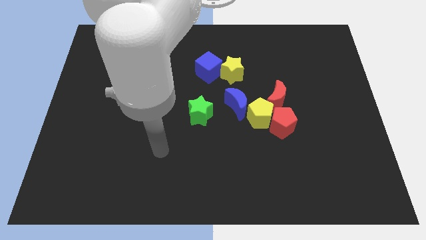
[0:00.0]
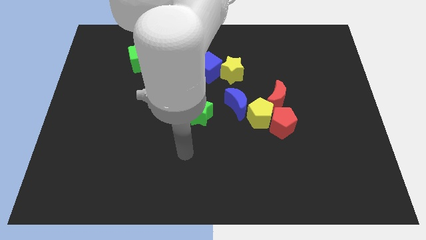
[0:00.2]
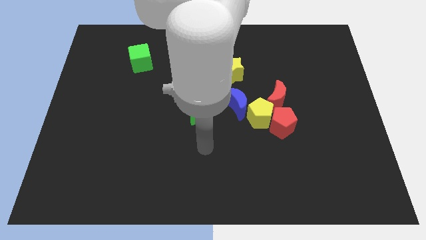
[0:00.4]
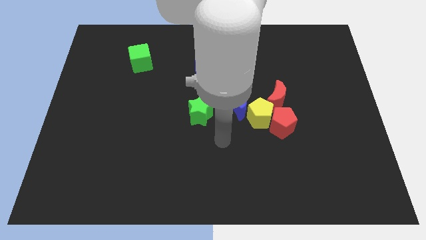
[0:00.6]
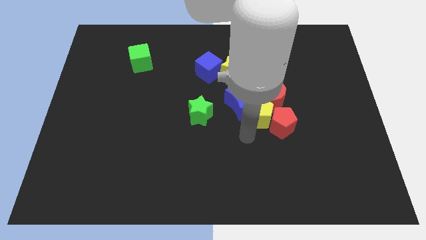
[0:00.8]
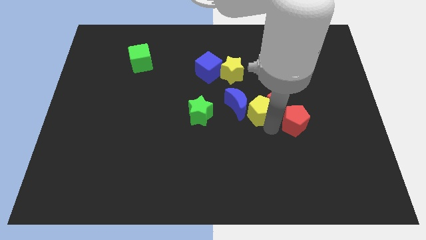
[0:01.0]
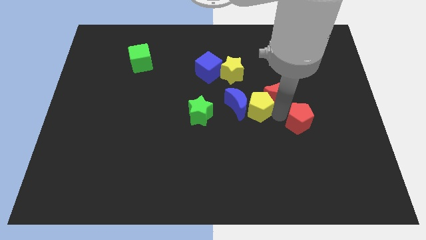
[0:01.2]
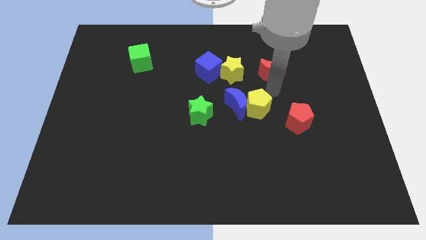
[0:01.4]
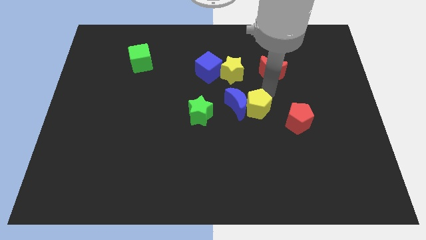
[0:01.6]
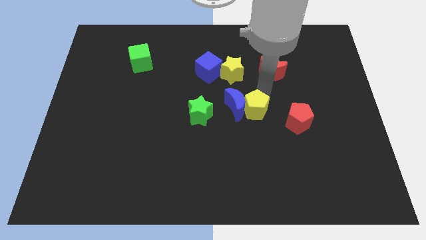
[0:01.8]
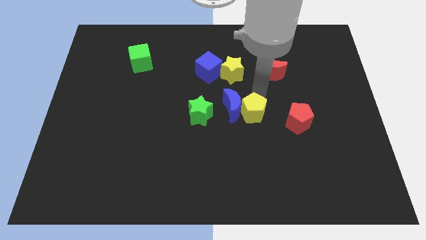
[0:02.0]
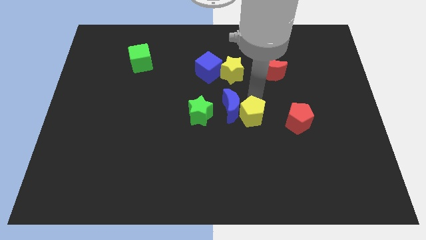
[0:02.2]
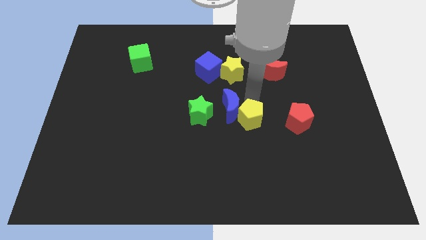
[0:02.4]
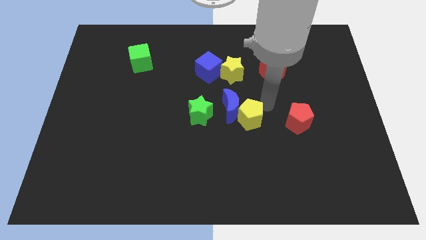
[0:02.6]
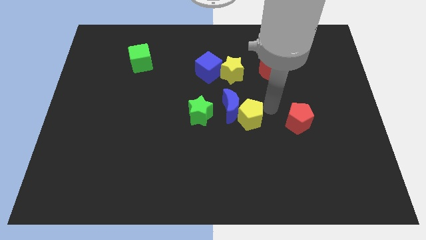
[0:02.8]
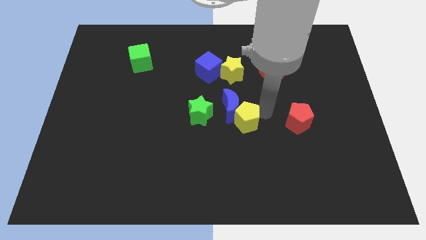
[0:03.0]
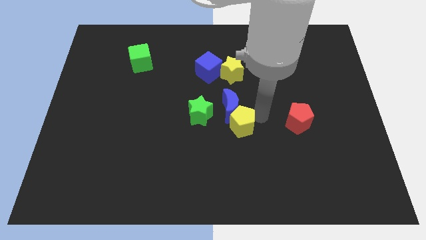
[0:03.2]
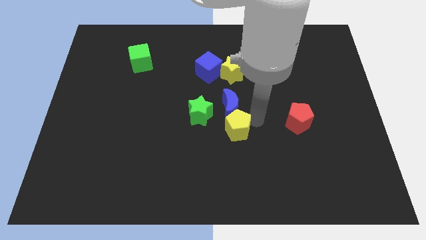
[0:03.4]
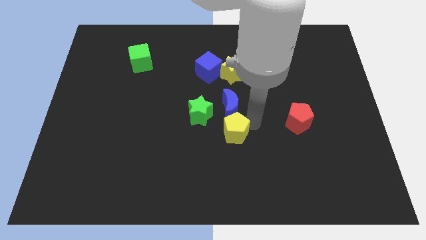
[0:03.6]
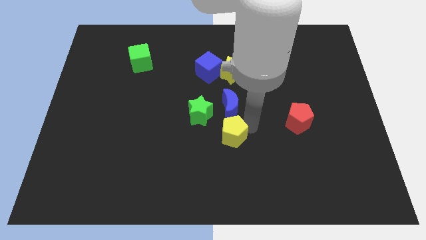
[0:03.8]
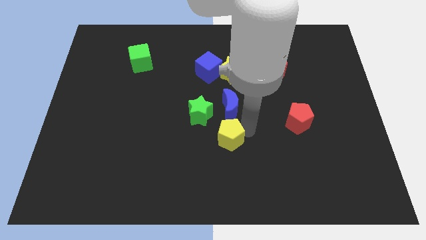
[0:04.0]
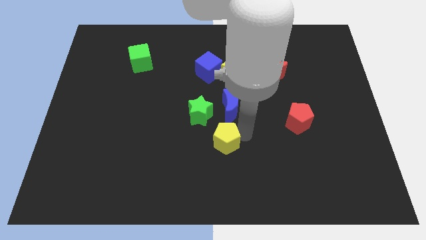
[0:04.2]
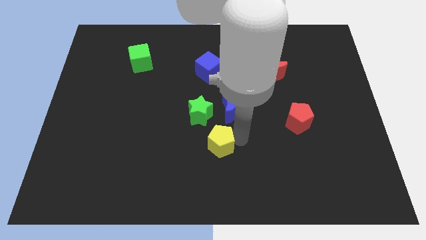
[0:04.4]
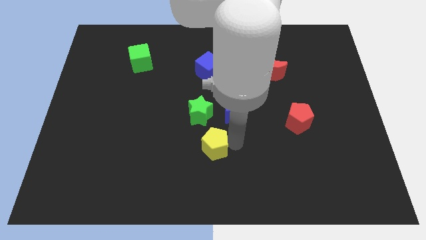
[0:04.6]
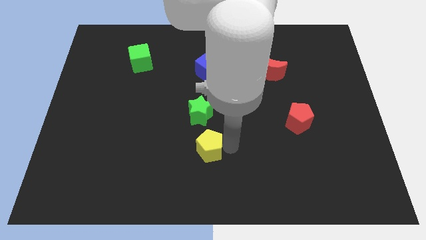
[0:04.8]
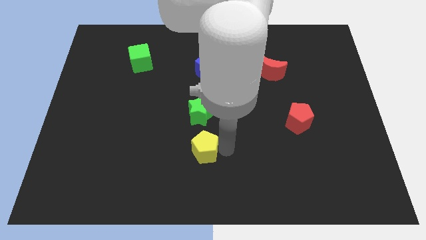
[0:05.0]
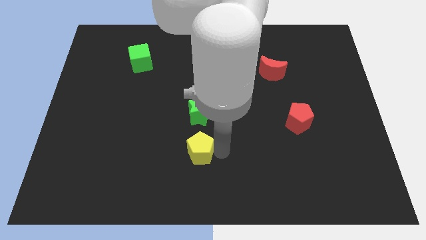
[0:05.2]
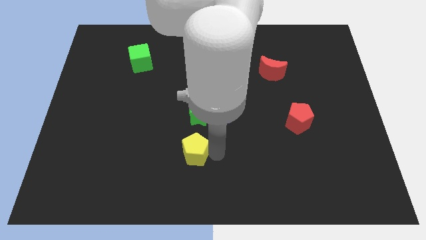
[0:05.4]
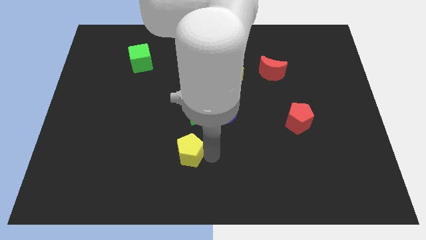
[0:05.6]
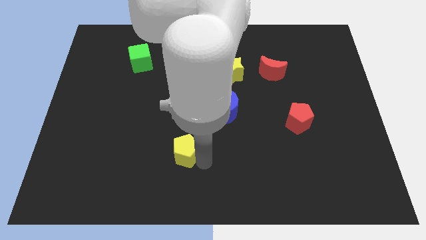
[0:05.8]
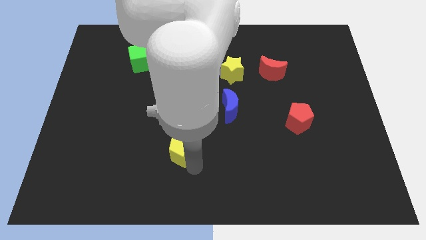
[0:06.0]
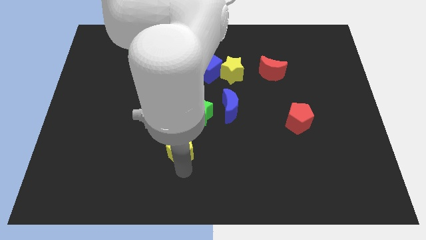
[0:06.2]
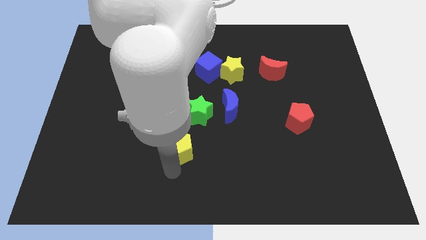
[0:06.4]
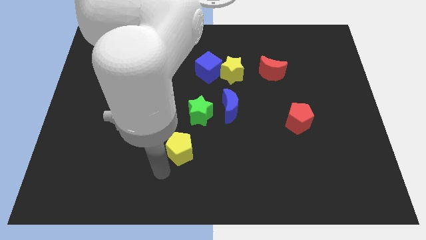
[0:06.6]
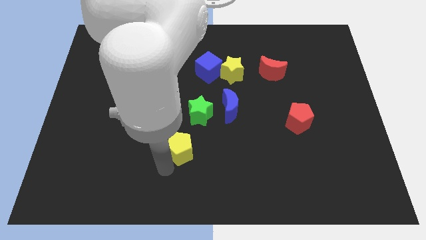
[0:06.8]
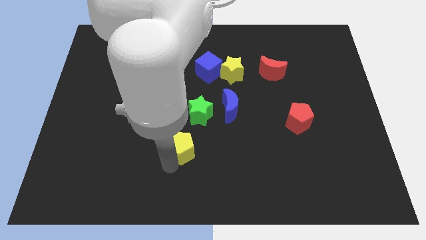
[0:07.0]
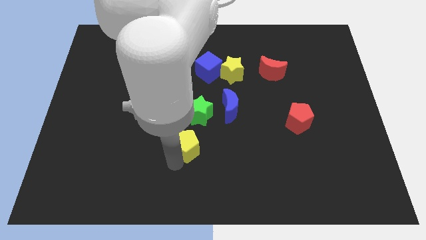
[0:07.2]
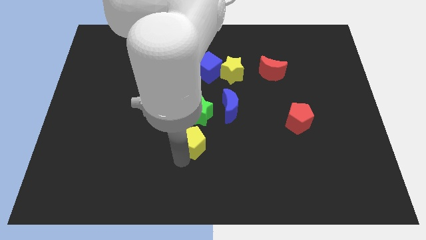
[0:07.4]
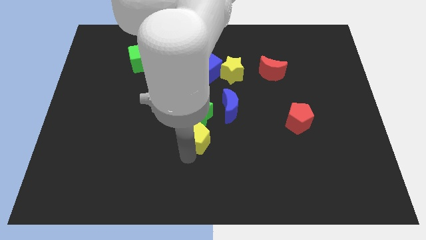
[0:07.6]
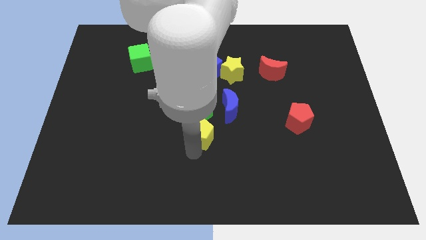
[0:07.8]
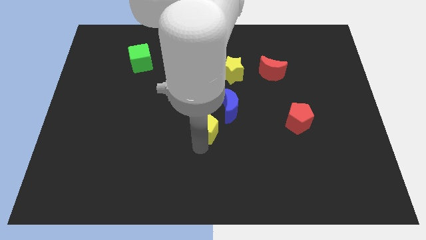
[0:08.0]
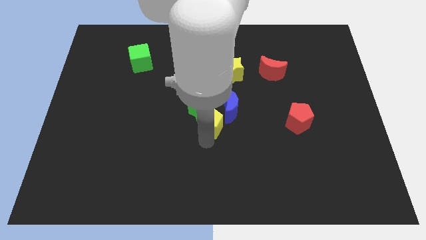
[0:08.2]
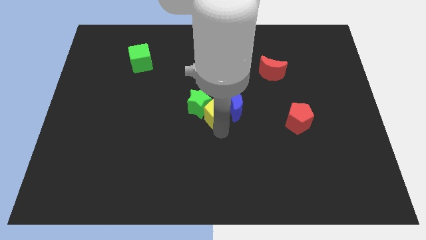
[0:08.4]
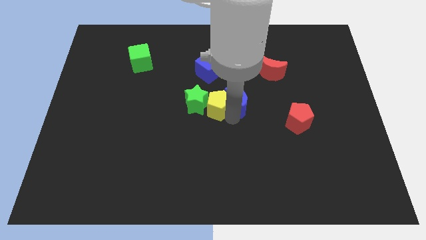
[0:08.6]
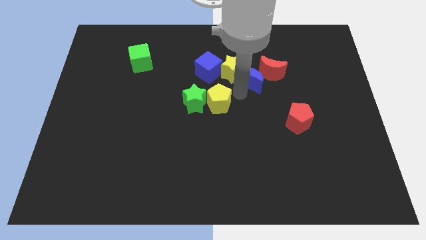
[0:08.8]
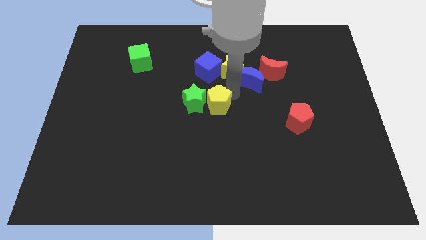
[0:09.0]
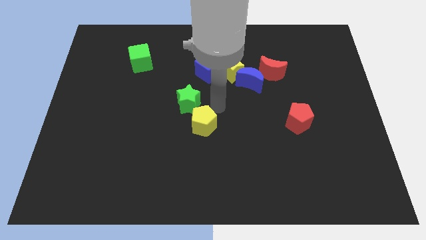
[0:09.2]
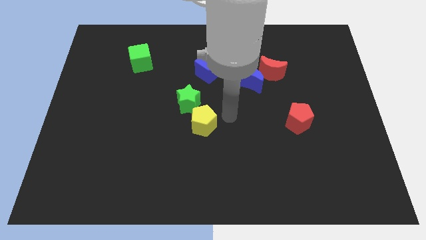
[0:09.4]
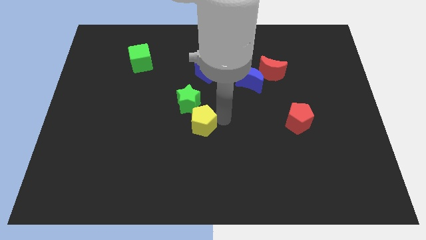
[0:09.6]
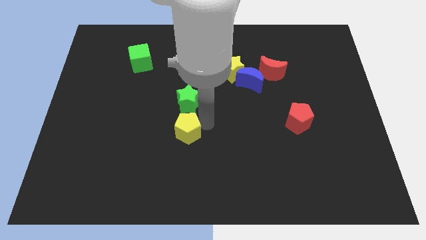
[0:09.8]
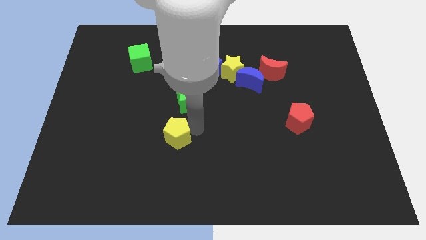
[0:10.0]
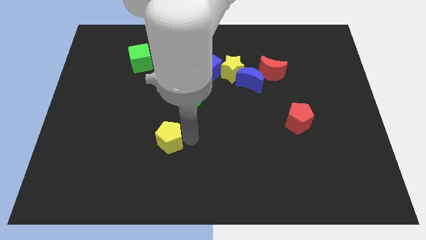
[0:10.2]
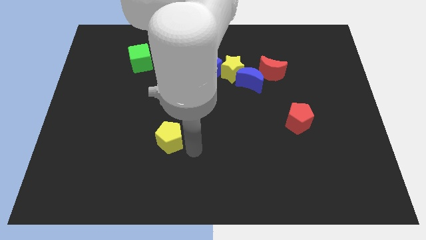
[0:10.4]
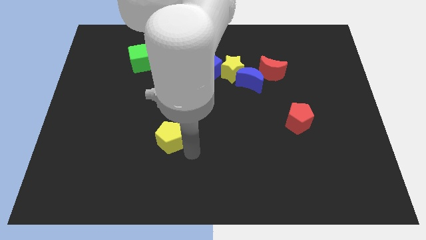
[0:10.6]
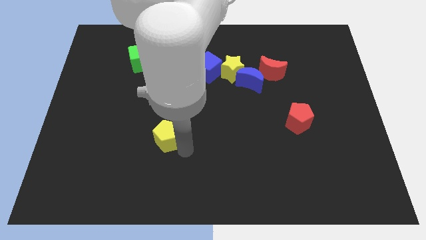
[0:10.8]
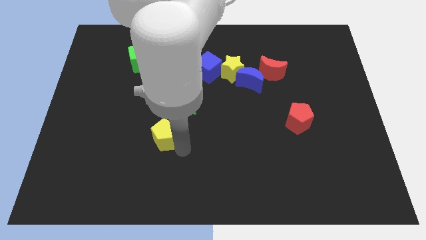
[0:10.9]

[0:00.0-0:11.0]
push the yellow pentagon left

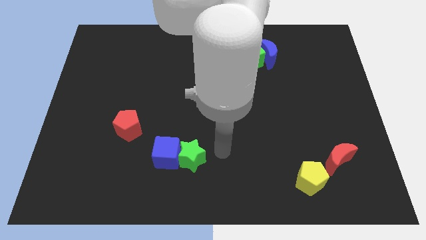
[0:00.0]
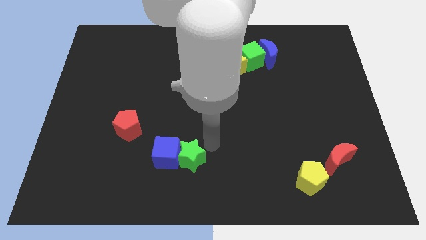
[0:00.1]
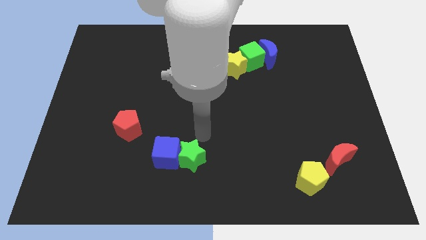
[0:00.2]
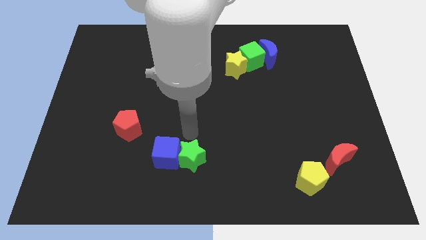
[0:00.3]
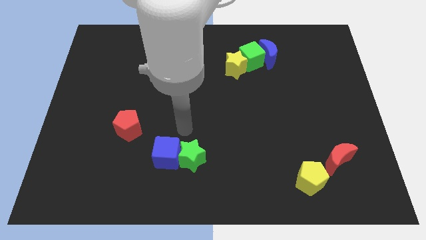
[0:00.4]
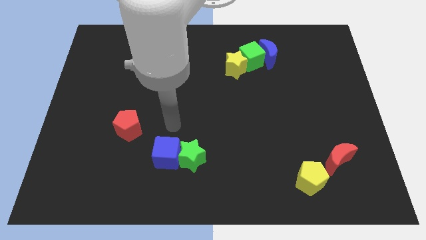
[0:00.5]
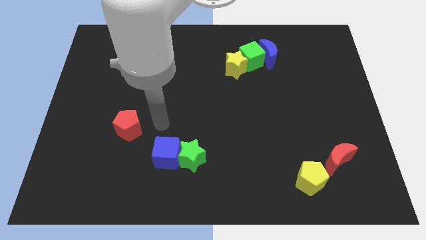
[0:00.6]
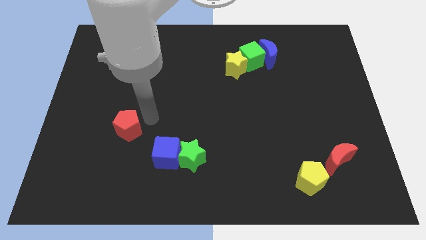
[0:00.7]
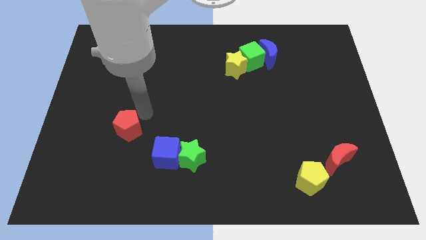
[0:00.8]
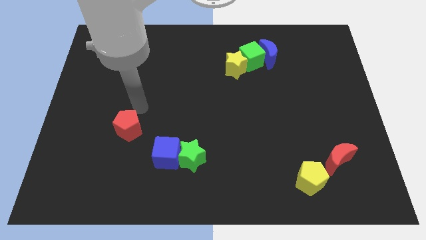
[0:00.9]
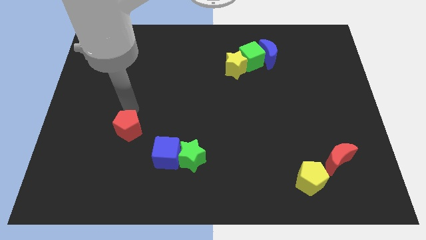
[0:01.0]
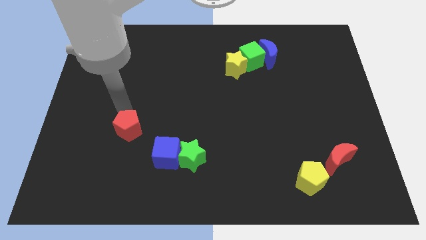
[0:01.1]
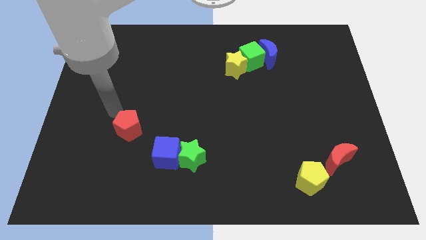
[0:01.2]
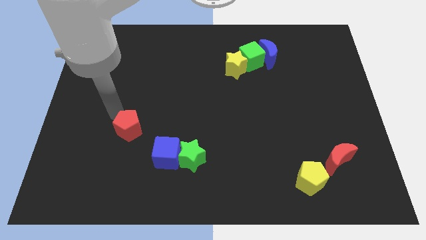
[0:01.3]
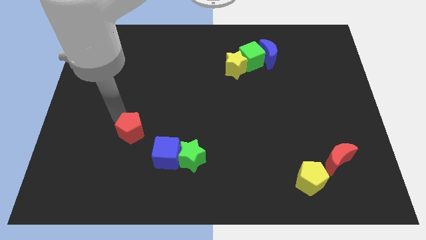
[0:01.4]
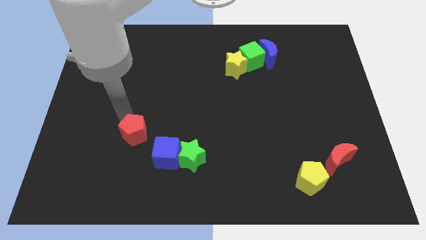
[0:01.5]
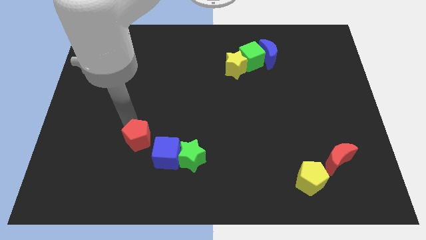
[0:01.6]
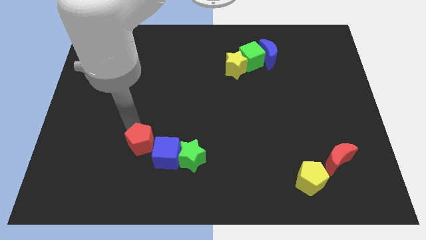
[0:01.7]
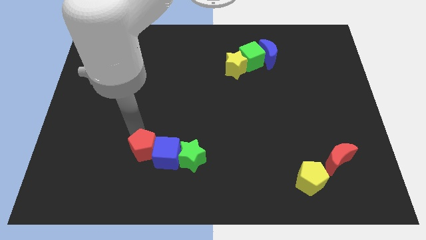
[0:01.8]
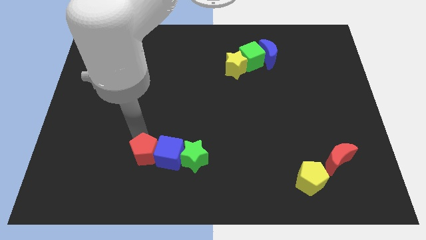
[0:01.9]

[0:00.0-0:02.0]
slightly push the red pentagon downwards and to the right

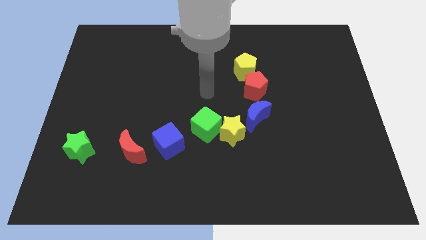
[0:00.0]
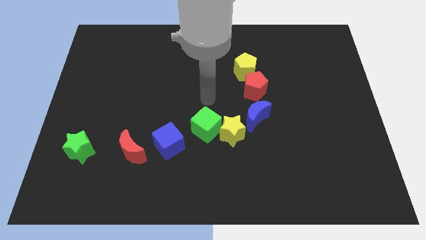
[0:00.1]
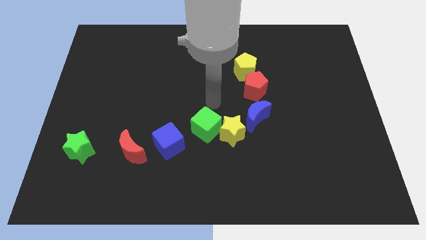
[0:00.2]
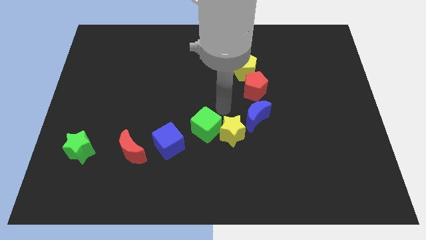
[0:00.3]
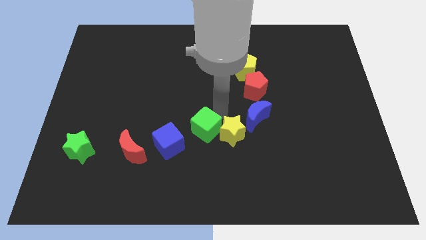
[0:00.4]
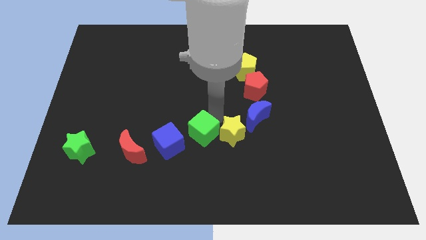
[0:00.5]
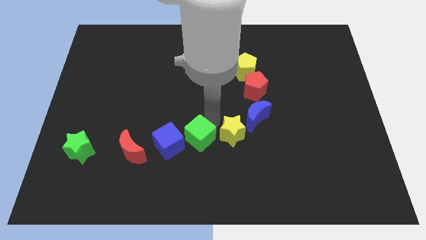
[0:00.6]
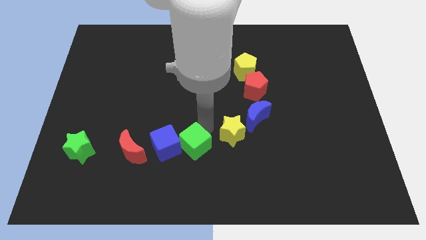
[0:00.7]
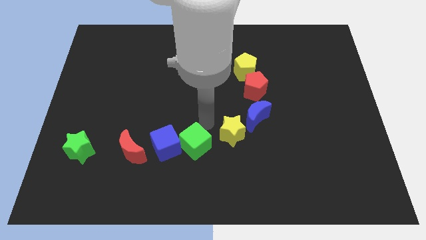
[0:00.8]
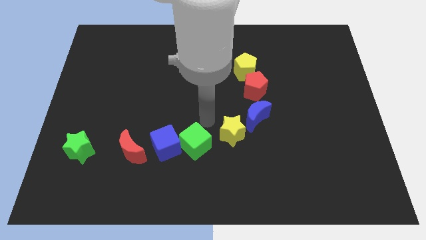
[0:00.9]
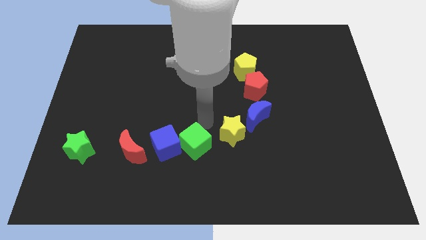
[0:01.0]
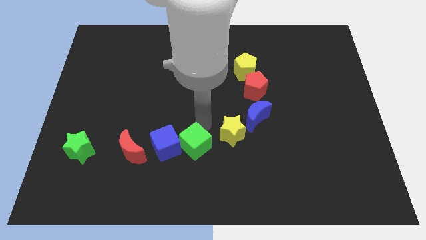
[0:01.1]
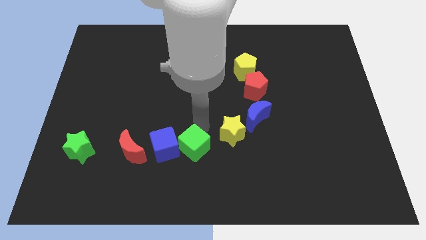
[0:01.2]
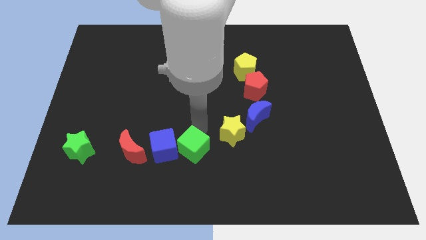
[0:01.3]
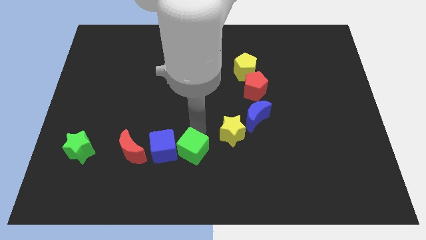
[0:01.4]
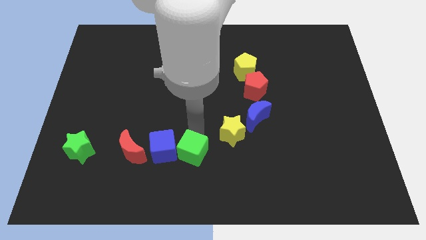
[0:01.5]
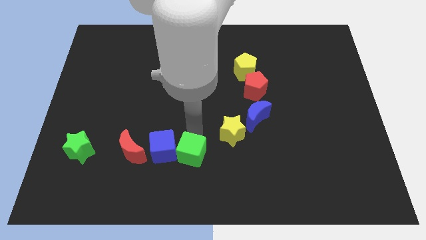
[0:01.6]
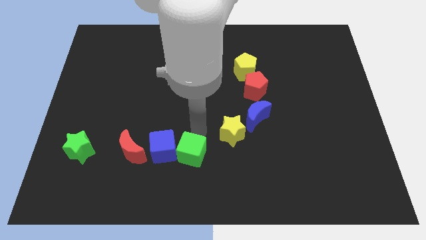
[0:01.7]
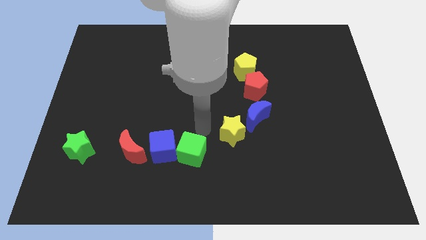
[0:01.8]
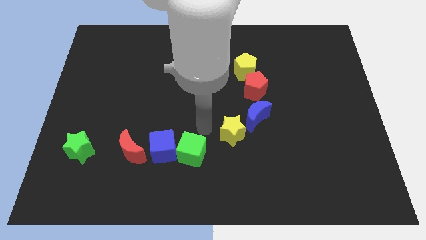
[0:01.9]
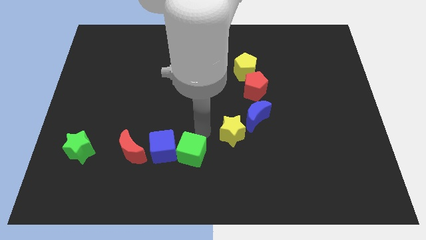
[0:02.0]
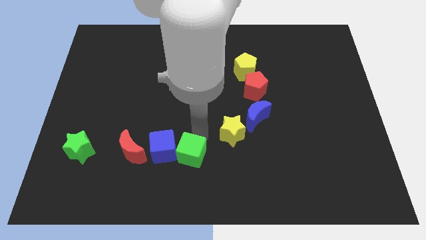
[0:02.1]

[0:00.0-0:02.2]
slightly slide the green cube down and to the left diagonally
